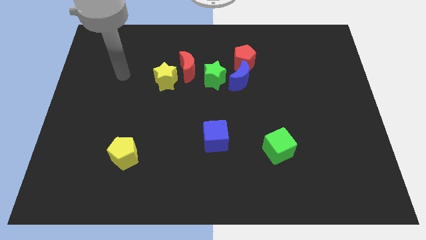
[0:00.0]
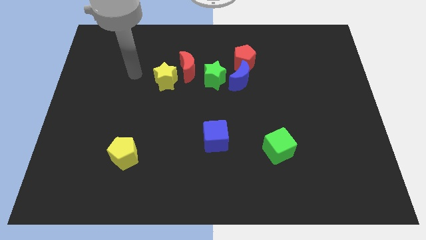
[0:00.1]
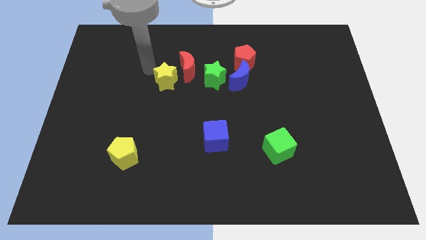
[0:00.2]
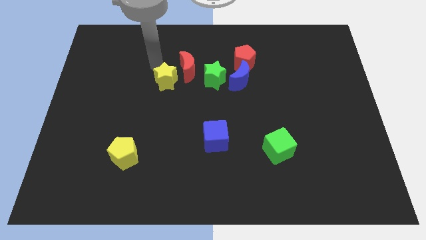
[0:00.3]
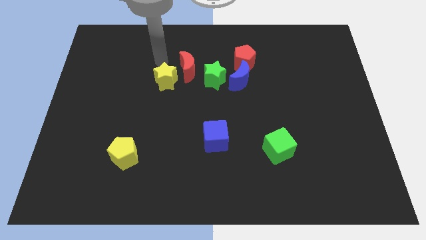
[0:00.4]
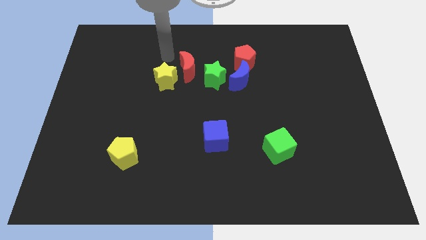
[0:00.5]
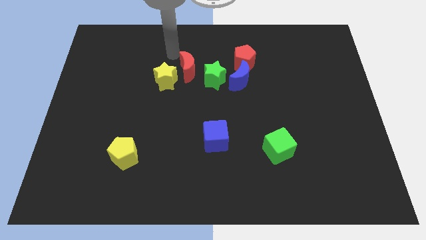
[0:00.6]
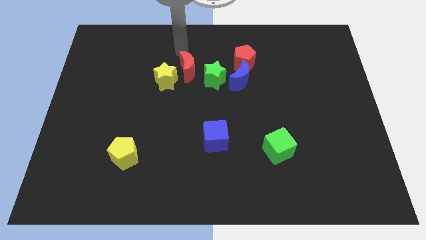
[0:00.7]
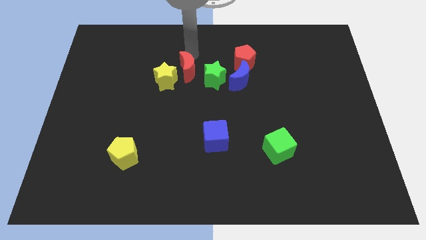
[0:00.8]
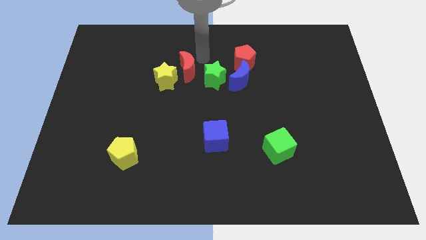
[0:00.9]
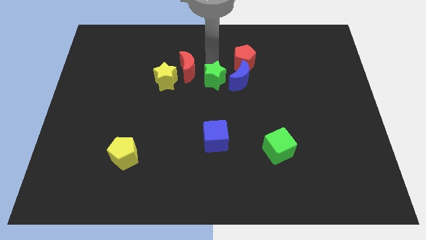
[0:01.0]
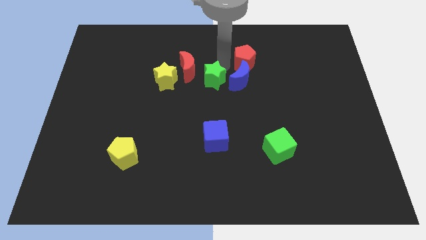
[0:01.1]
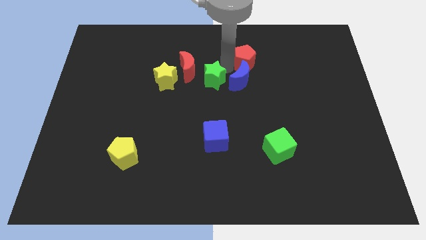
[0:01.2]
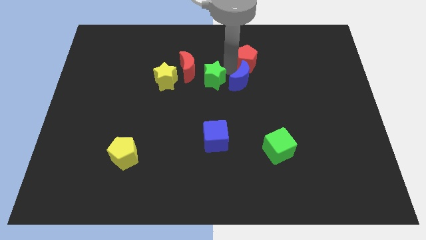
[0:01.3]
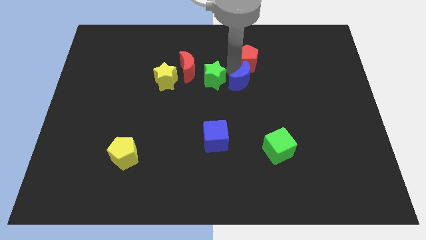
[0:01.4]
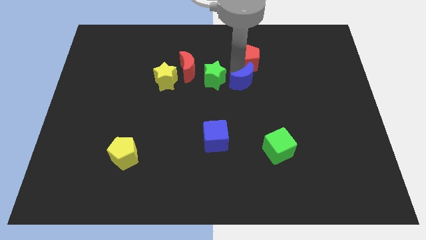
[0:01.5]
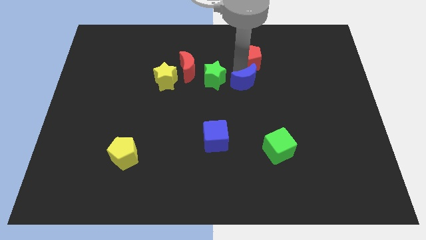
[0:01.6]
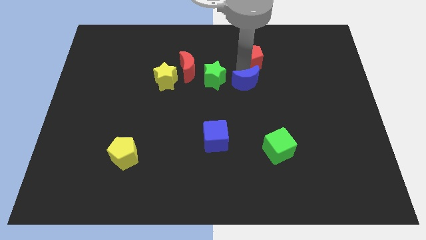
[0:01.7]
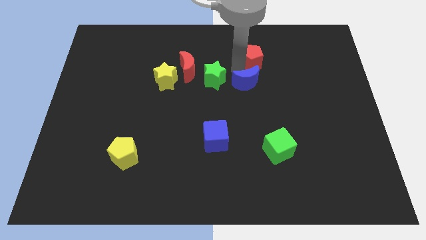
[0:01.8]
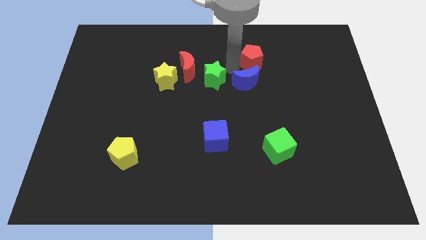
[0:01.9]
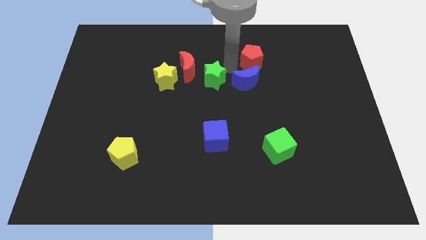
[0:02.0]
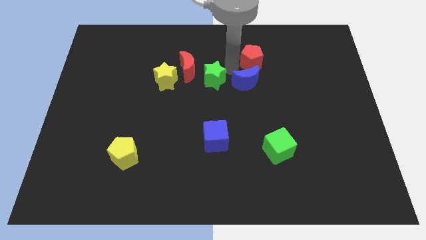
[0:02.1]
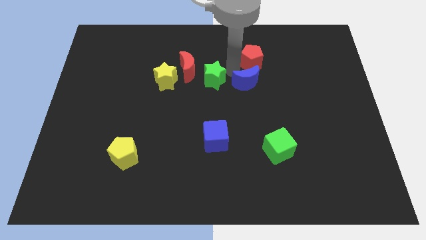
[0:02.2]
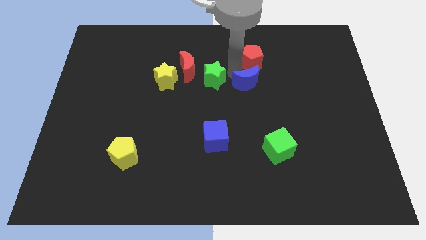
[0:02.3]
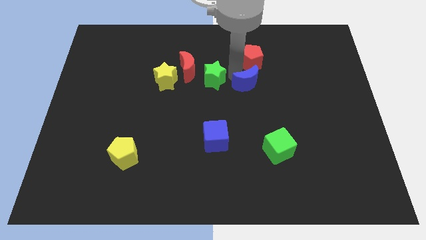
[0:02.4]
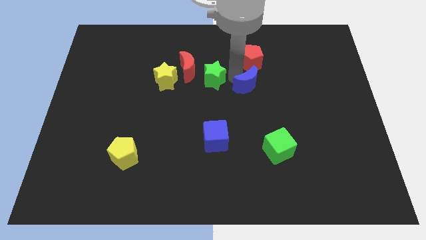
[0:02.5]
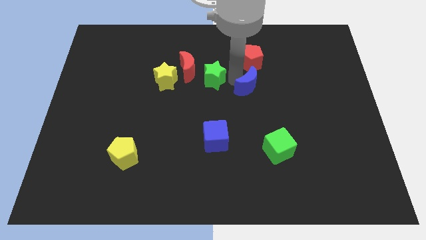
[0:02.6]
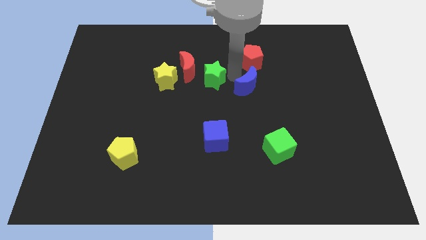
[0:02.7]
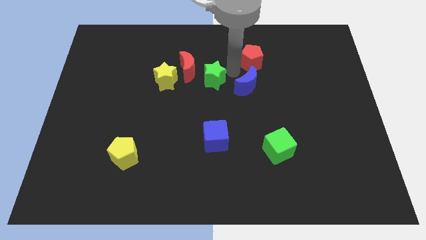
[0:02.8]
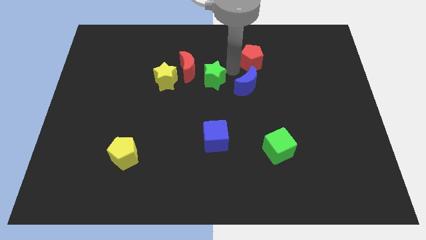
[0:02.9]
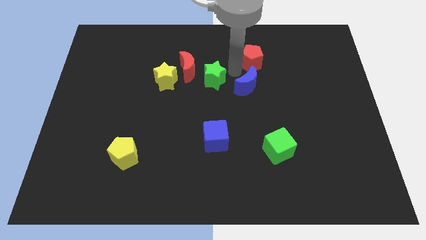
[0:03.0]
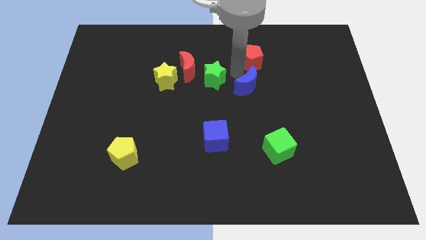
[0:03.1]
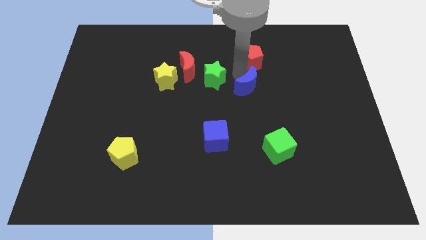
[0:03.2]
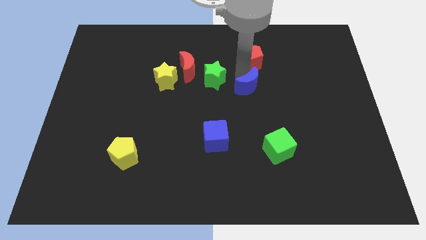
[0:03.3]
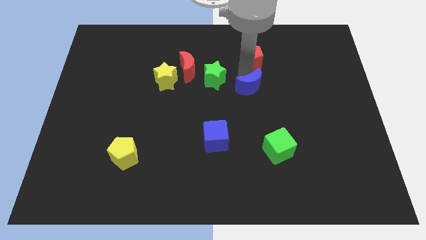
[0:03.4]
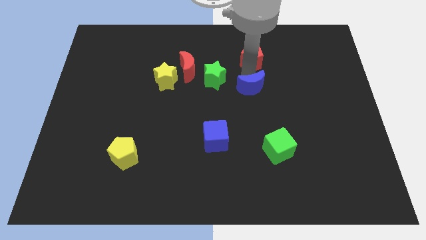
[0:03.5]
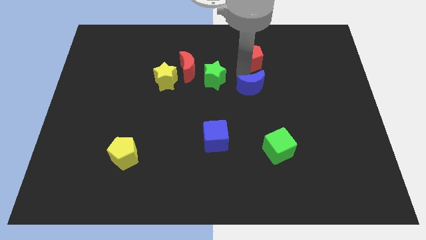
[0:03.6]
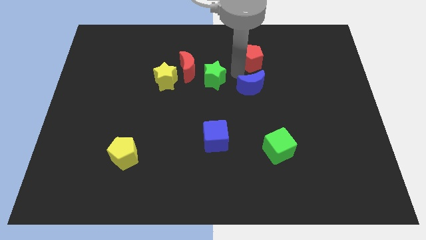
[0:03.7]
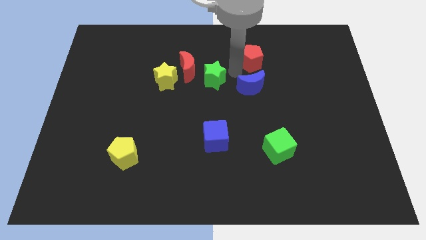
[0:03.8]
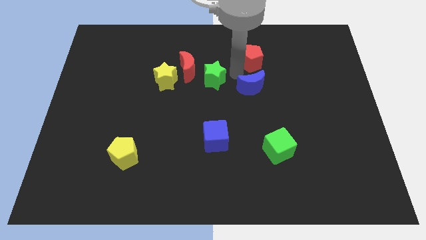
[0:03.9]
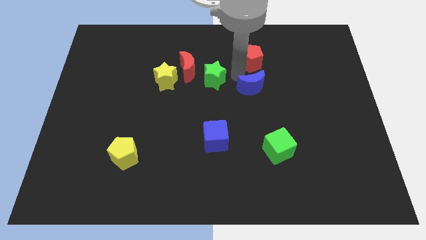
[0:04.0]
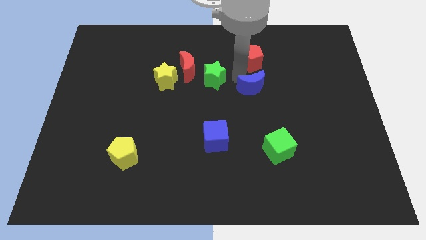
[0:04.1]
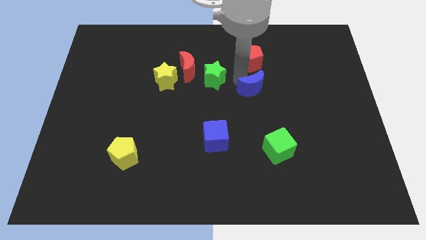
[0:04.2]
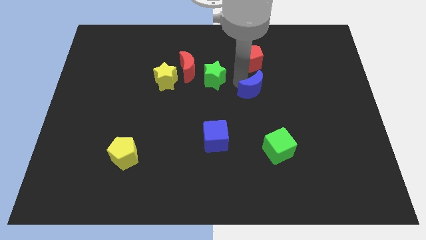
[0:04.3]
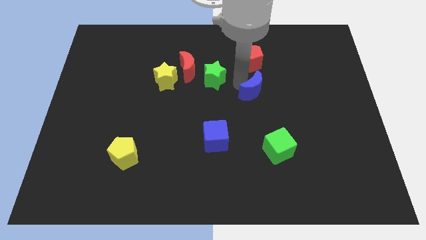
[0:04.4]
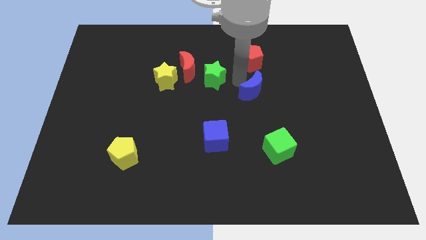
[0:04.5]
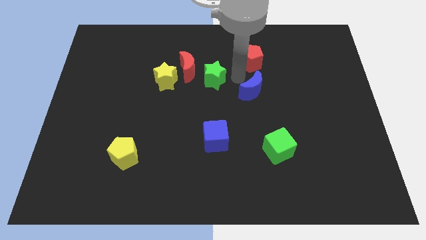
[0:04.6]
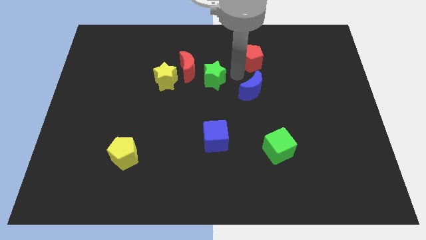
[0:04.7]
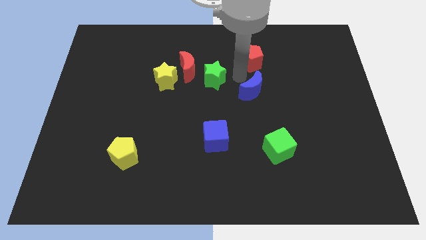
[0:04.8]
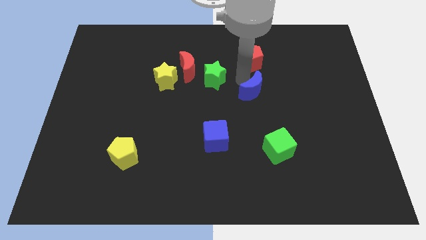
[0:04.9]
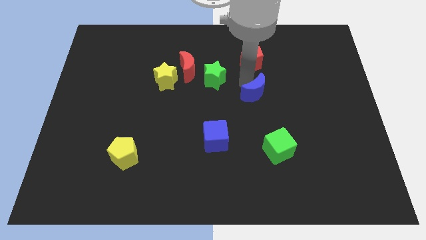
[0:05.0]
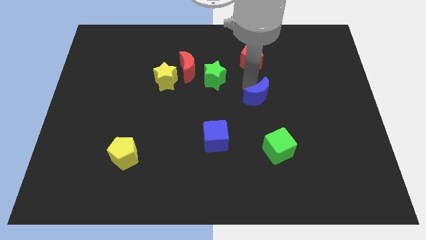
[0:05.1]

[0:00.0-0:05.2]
pull the blue moon apart from the red pentagon and green star

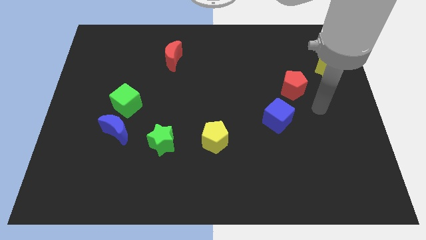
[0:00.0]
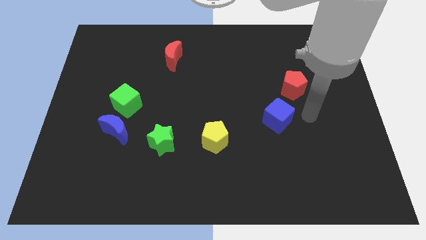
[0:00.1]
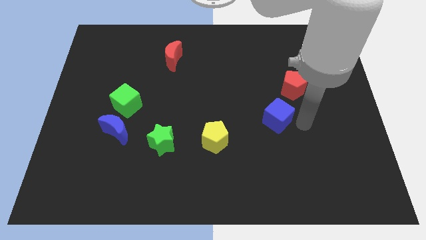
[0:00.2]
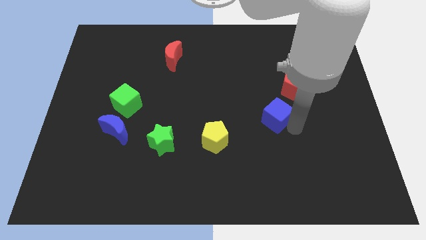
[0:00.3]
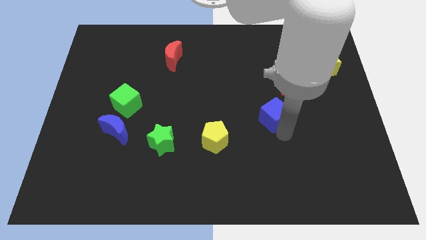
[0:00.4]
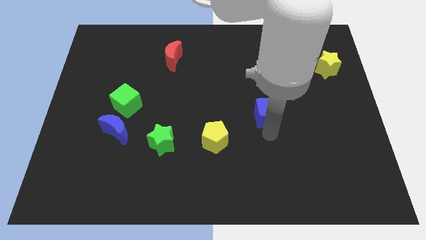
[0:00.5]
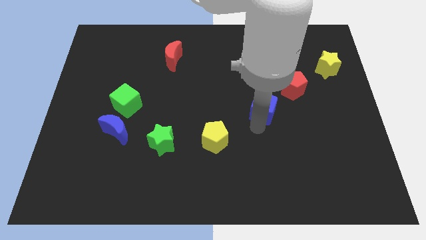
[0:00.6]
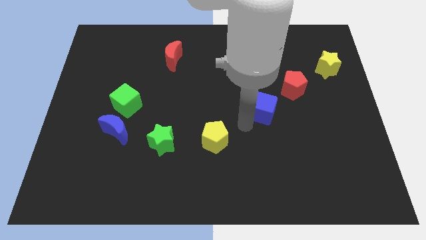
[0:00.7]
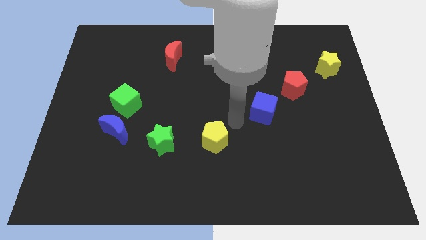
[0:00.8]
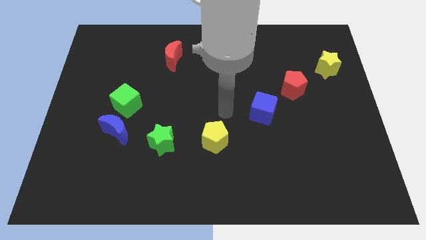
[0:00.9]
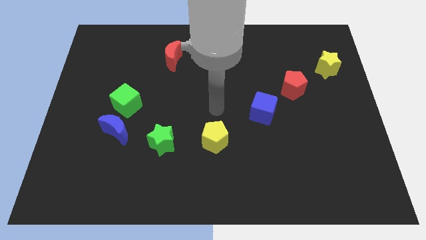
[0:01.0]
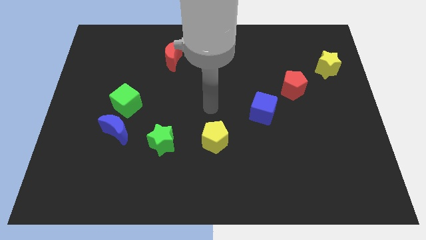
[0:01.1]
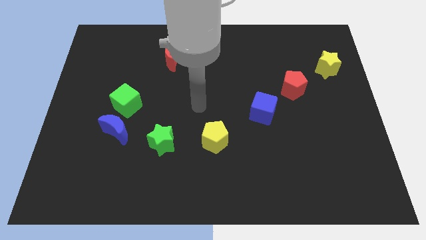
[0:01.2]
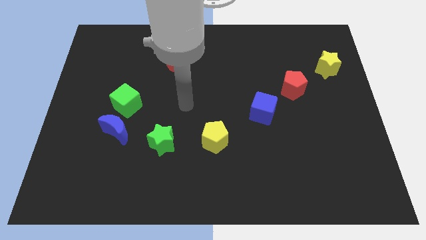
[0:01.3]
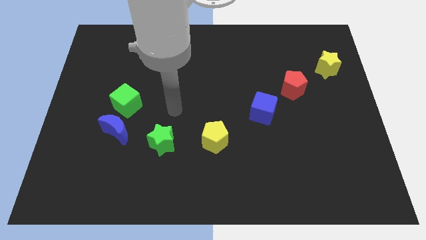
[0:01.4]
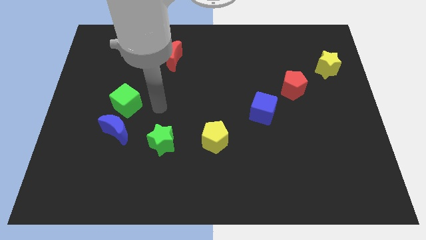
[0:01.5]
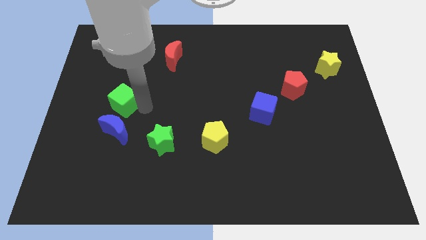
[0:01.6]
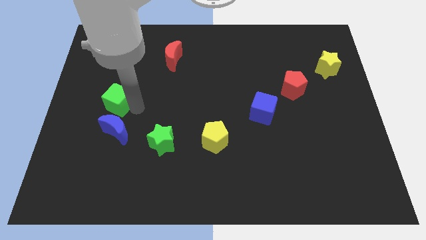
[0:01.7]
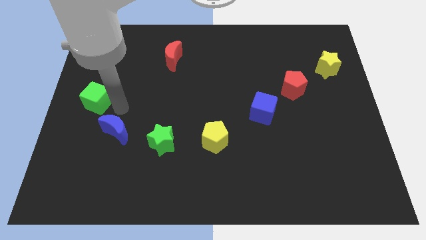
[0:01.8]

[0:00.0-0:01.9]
move the blue moon away from the green cube

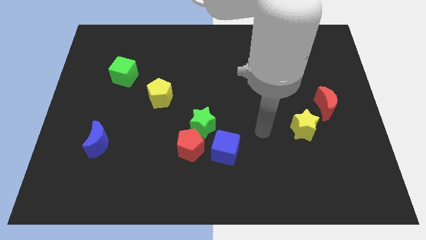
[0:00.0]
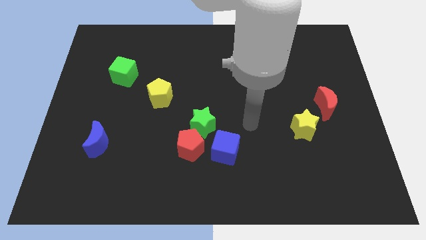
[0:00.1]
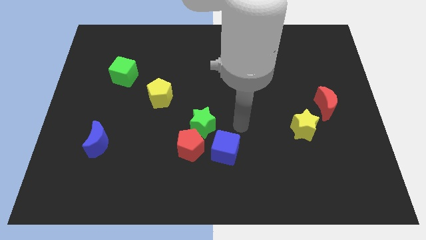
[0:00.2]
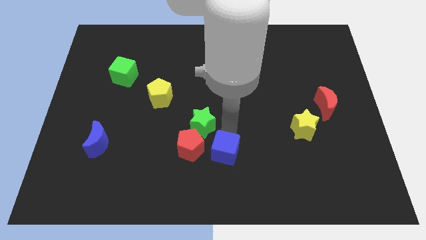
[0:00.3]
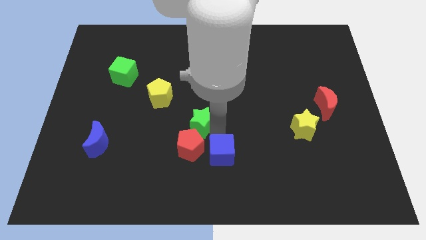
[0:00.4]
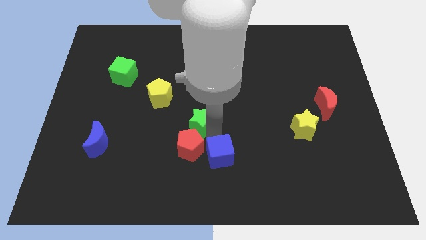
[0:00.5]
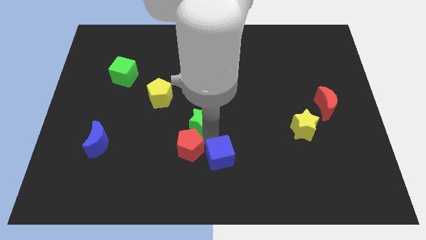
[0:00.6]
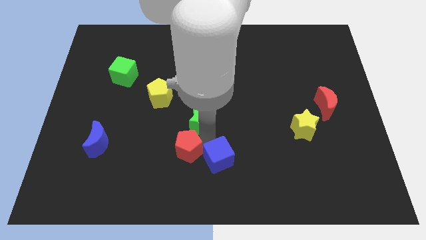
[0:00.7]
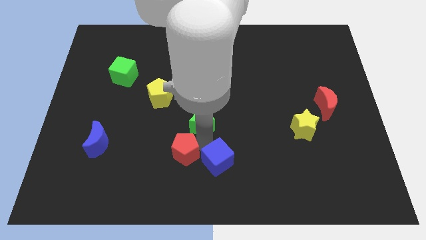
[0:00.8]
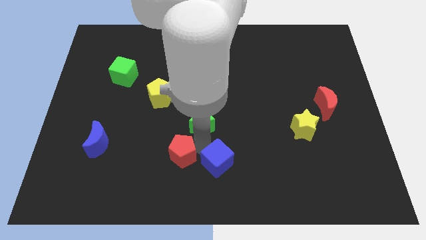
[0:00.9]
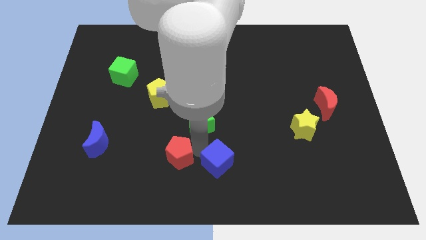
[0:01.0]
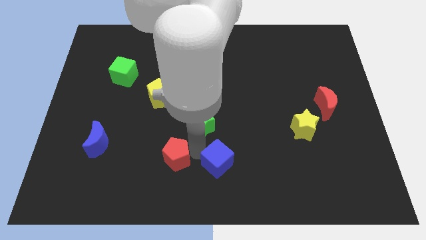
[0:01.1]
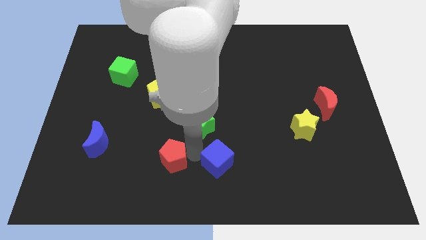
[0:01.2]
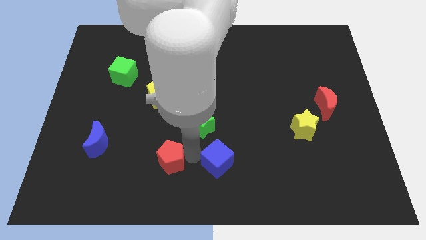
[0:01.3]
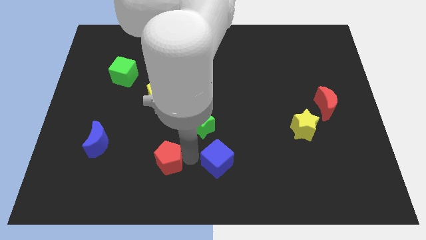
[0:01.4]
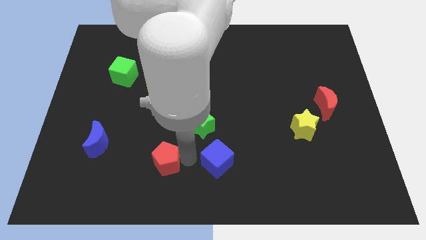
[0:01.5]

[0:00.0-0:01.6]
pull the red pentagon apart from the green star and blue cube

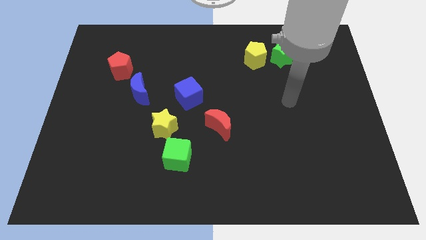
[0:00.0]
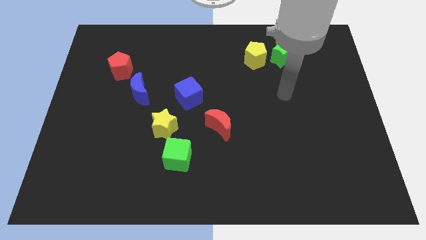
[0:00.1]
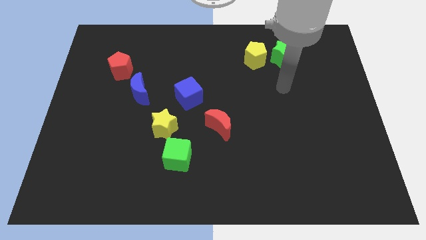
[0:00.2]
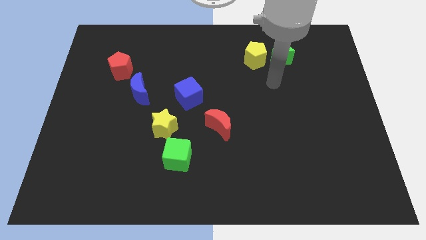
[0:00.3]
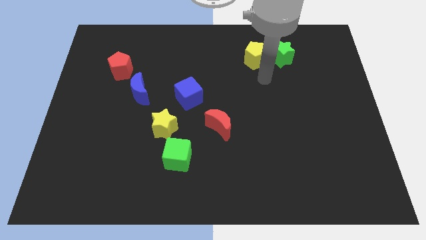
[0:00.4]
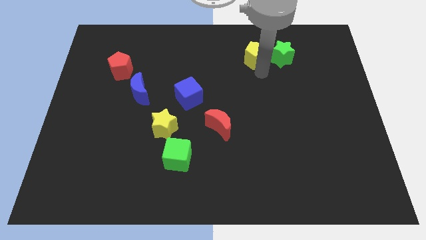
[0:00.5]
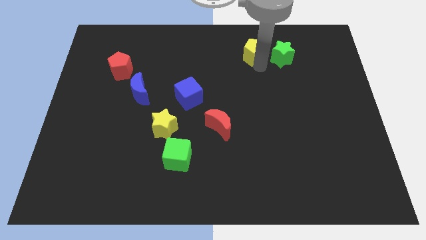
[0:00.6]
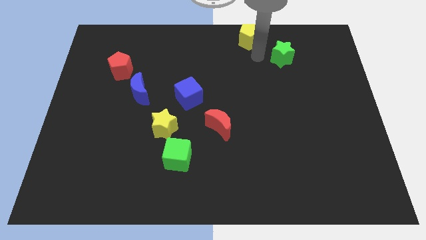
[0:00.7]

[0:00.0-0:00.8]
separate the green star from the yellow pentagon
